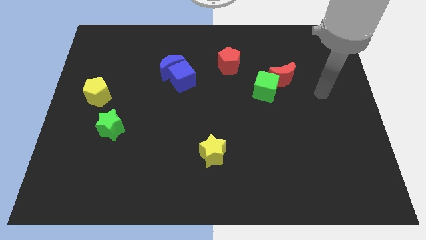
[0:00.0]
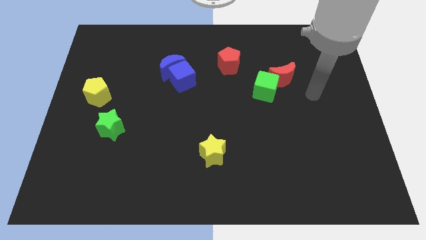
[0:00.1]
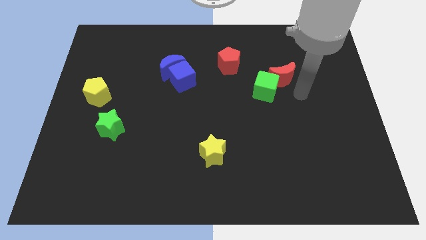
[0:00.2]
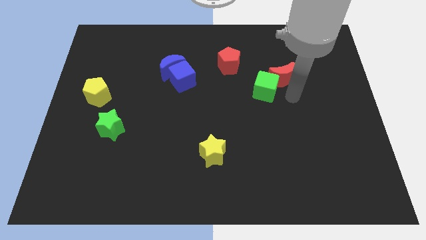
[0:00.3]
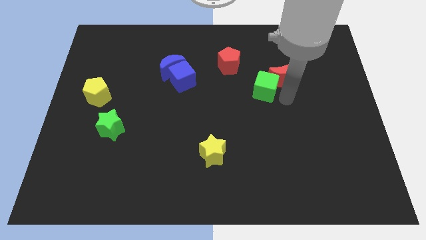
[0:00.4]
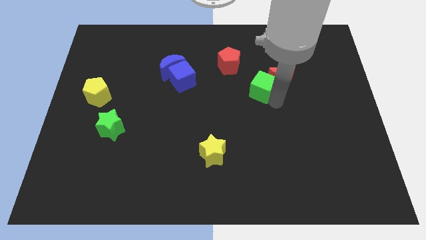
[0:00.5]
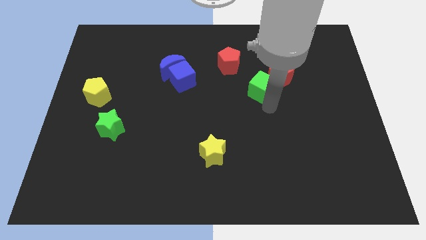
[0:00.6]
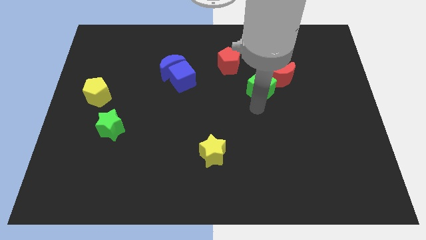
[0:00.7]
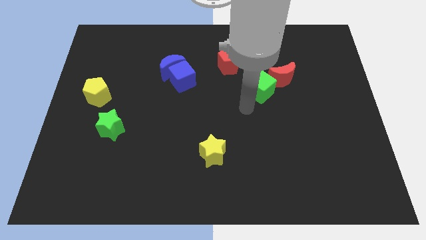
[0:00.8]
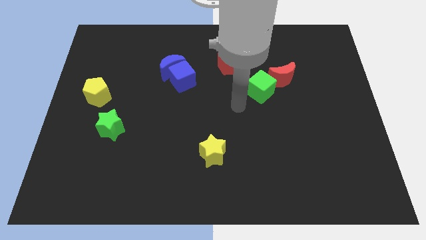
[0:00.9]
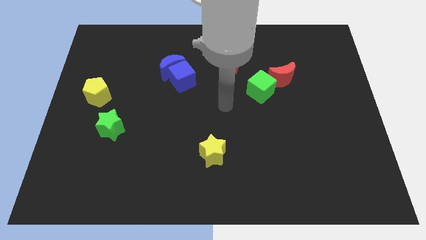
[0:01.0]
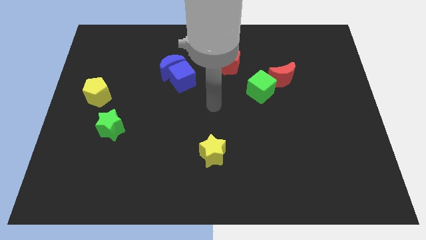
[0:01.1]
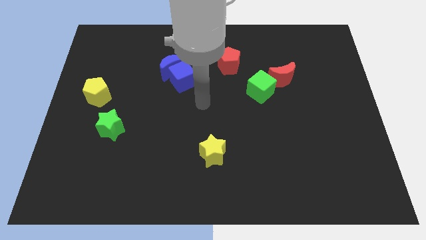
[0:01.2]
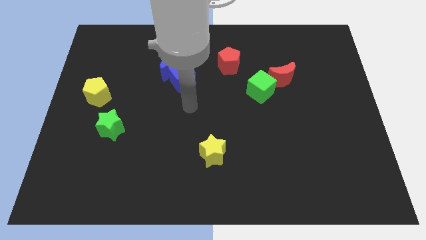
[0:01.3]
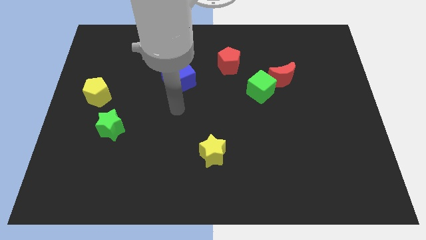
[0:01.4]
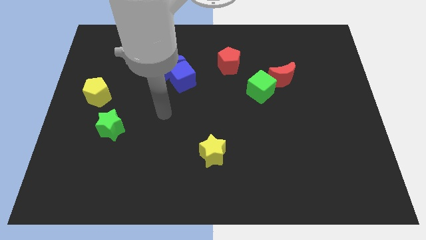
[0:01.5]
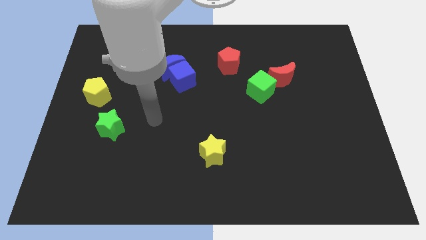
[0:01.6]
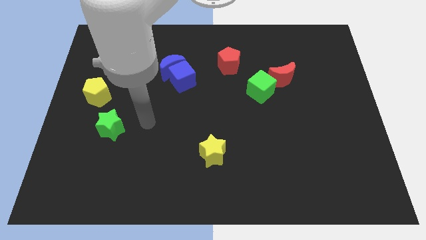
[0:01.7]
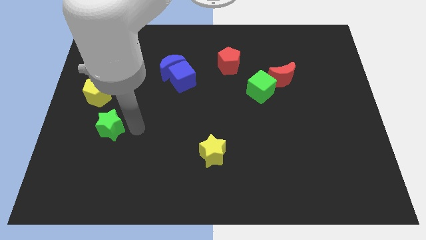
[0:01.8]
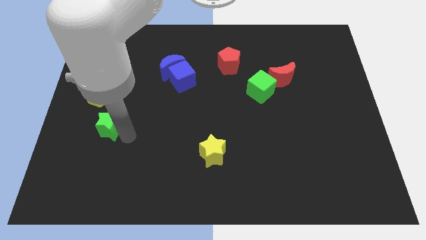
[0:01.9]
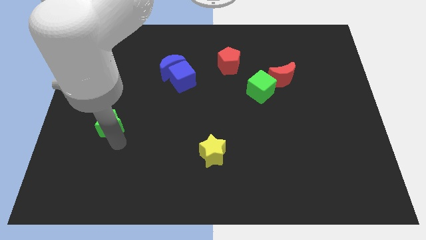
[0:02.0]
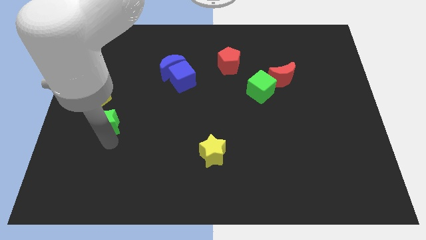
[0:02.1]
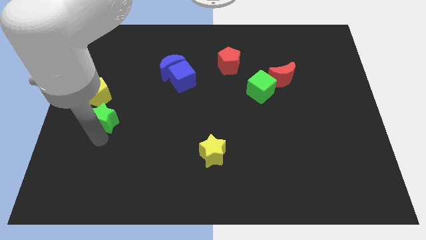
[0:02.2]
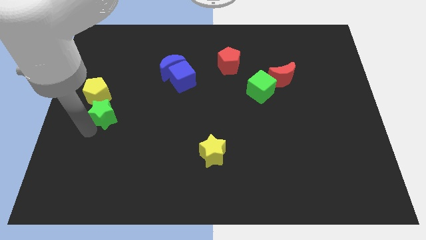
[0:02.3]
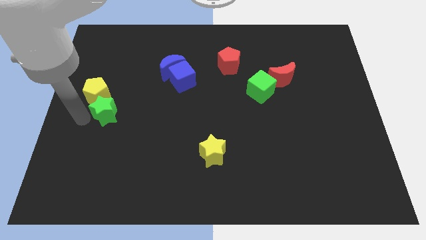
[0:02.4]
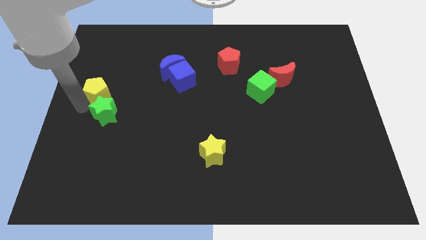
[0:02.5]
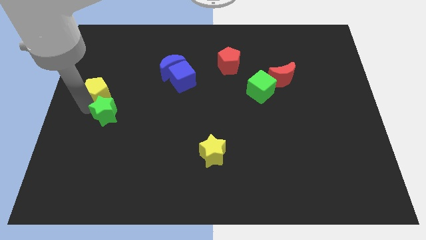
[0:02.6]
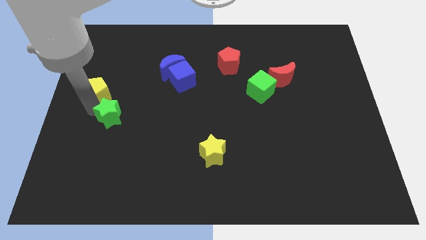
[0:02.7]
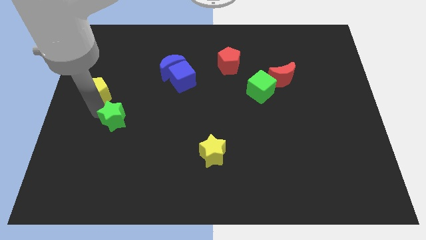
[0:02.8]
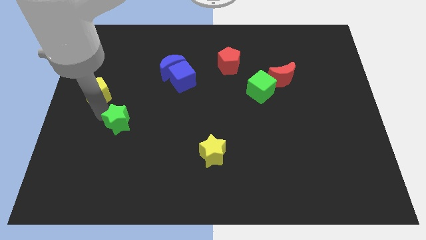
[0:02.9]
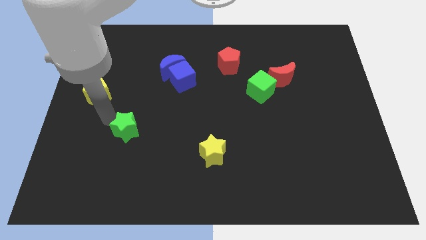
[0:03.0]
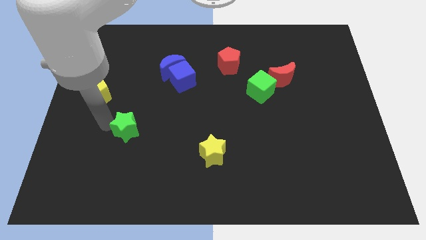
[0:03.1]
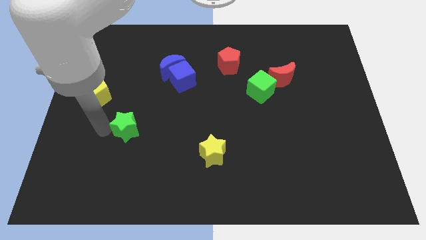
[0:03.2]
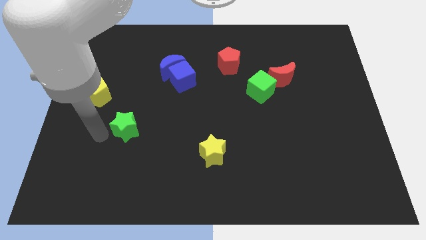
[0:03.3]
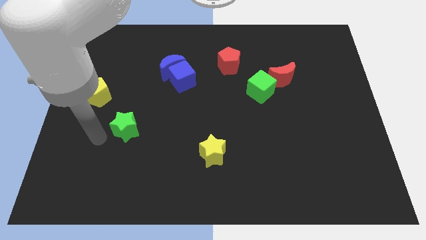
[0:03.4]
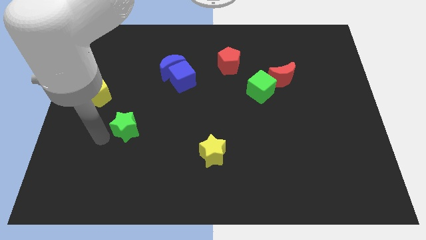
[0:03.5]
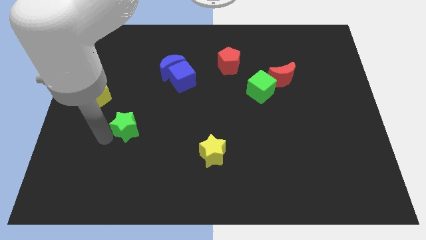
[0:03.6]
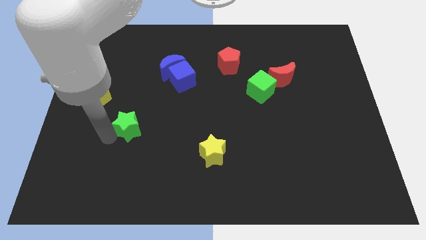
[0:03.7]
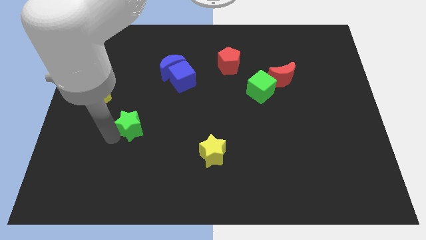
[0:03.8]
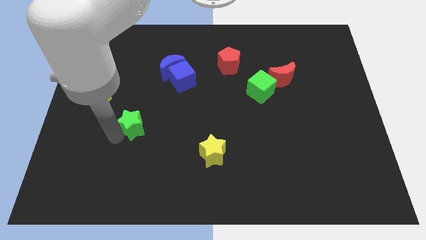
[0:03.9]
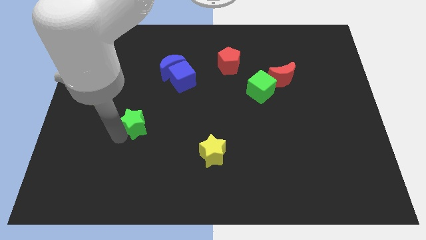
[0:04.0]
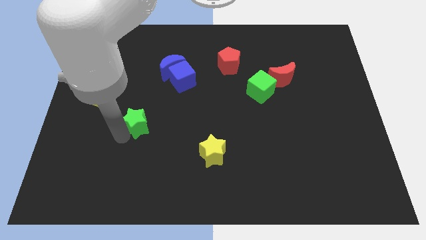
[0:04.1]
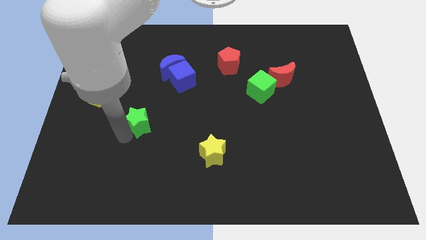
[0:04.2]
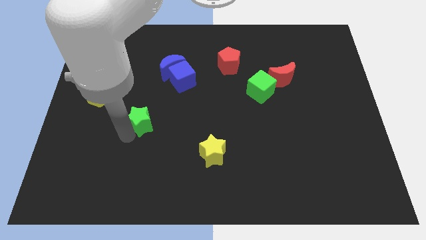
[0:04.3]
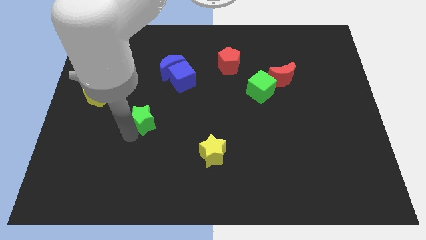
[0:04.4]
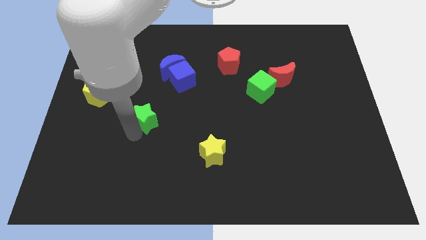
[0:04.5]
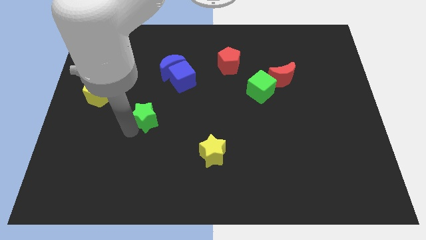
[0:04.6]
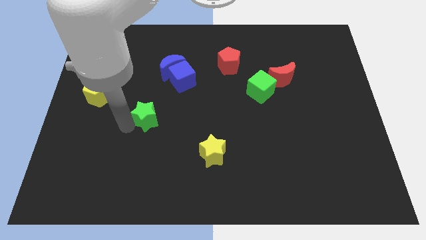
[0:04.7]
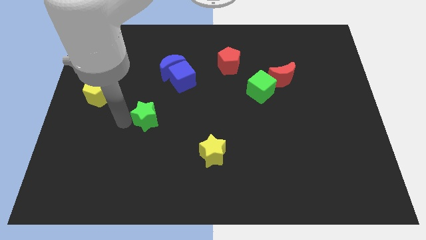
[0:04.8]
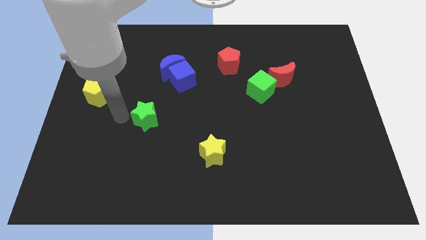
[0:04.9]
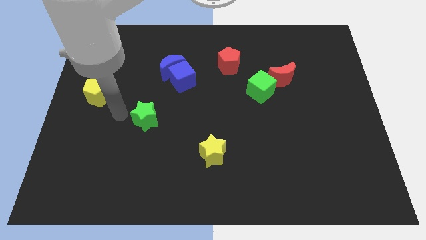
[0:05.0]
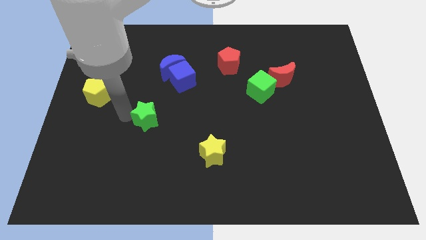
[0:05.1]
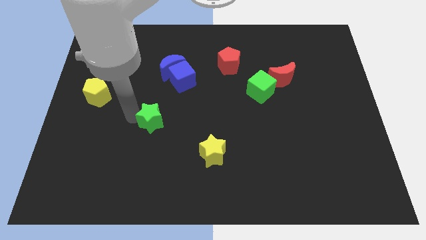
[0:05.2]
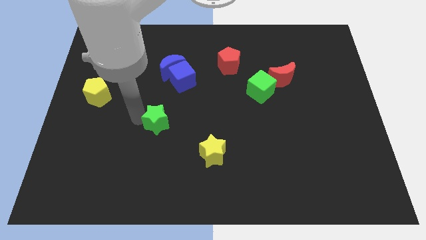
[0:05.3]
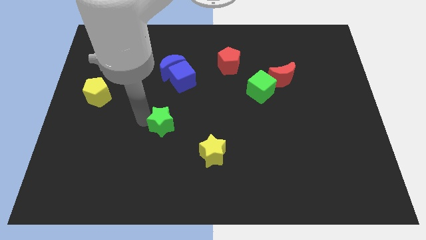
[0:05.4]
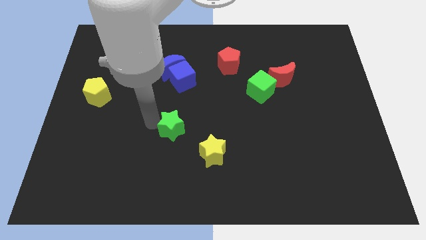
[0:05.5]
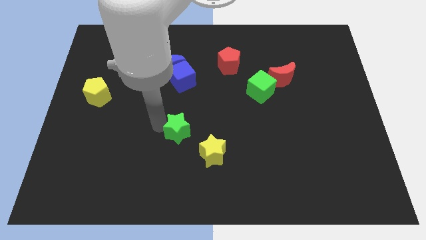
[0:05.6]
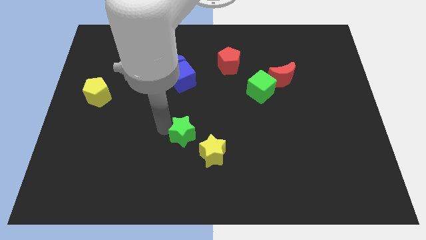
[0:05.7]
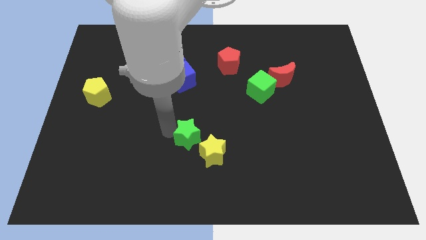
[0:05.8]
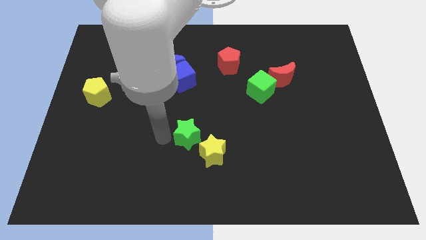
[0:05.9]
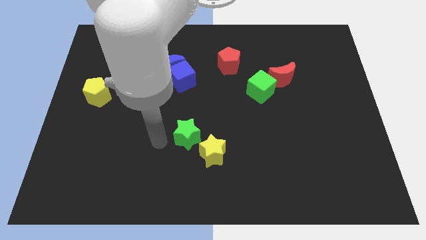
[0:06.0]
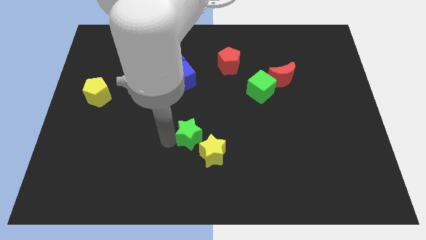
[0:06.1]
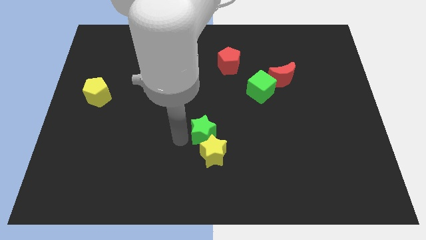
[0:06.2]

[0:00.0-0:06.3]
push the green star right

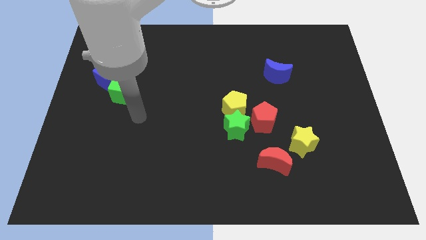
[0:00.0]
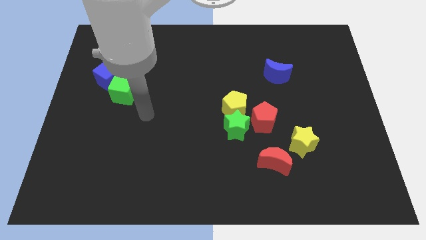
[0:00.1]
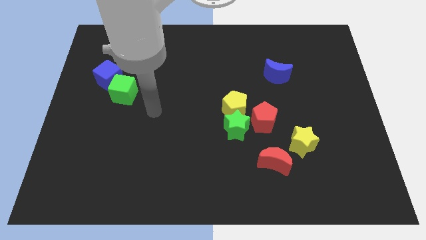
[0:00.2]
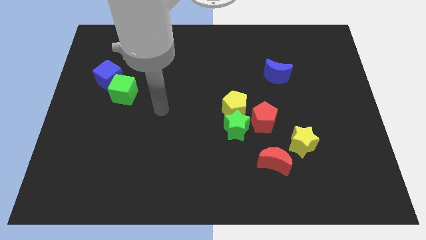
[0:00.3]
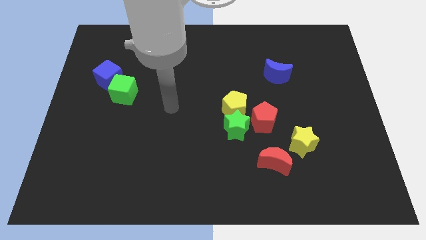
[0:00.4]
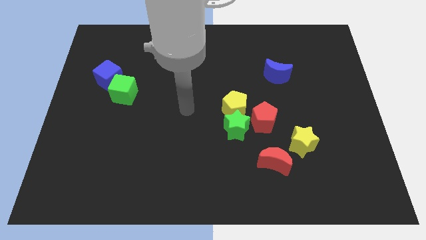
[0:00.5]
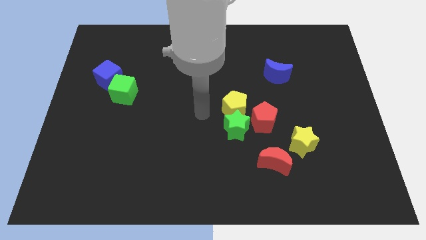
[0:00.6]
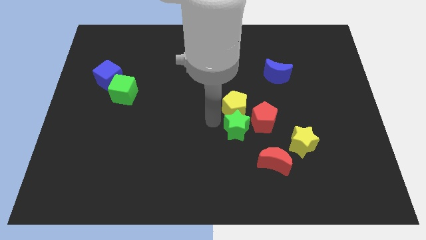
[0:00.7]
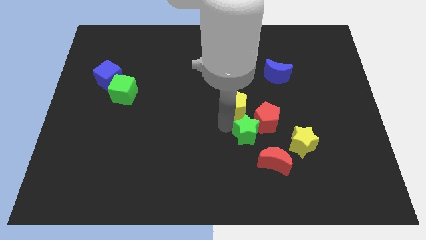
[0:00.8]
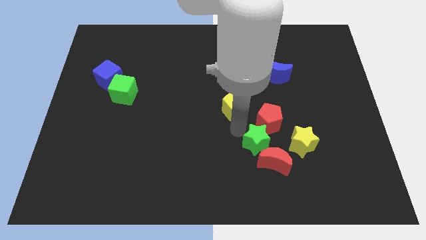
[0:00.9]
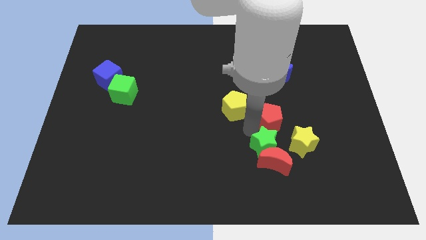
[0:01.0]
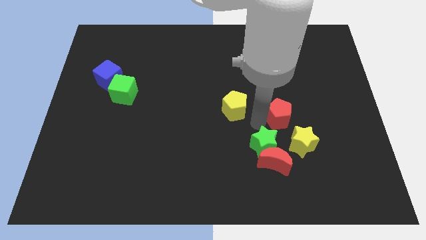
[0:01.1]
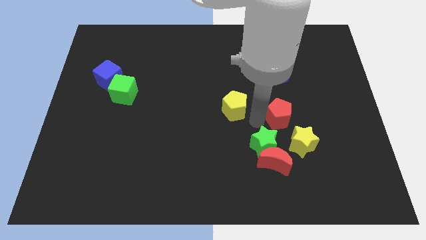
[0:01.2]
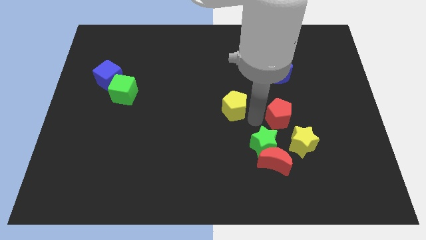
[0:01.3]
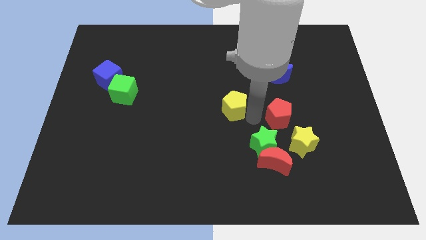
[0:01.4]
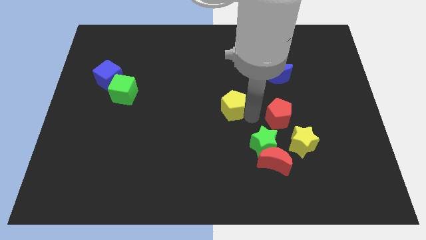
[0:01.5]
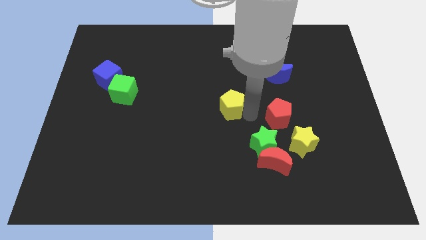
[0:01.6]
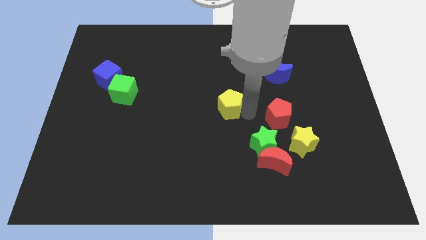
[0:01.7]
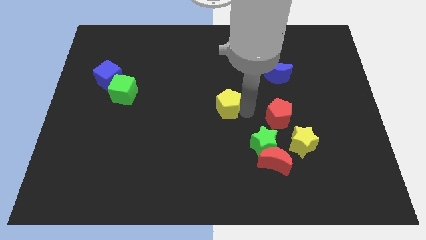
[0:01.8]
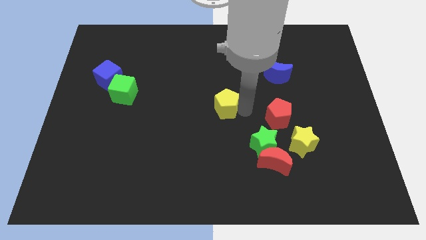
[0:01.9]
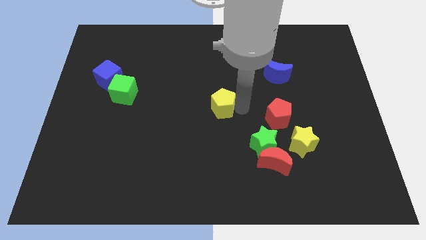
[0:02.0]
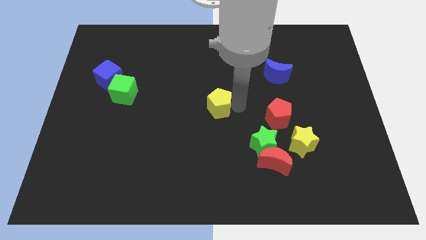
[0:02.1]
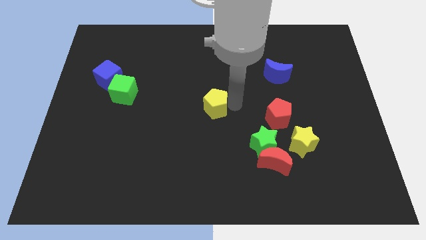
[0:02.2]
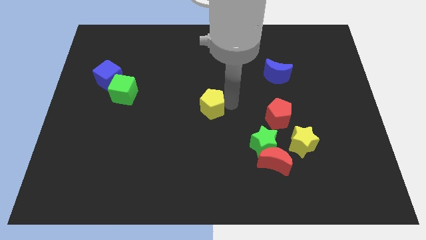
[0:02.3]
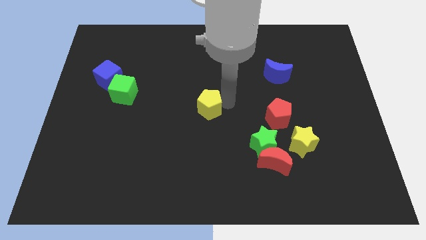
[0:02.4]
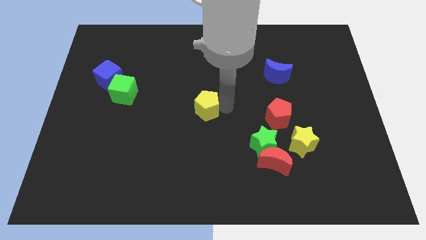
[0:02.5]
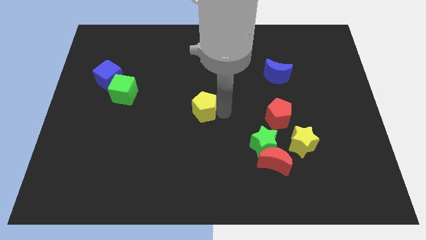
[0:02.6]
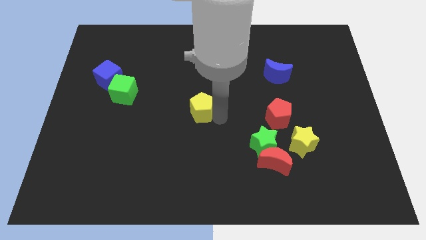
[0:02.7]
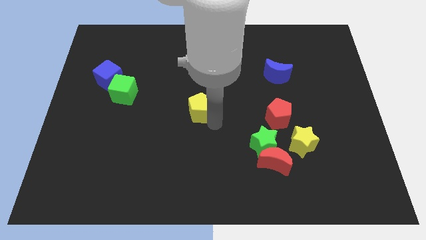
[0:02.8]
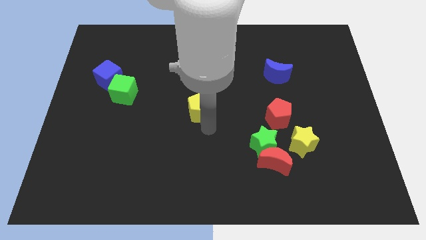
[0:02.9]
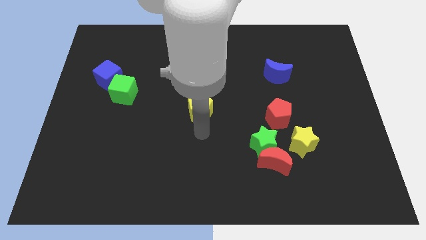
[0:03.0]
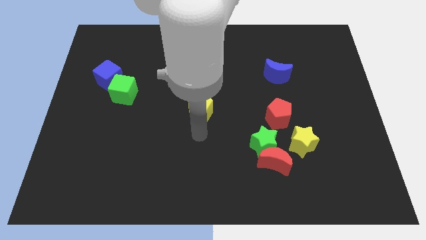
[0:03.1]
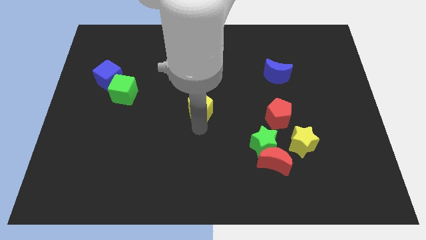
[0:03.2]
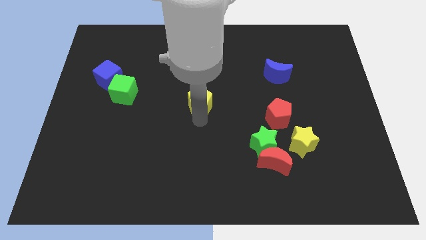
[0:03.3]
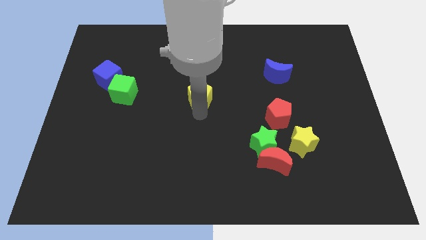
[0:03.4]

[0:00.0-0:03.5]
slightly slide the yellow pentagon diagonally up and to the left
